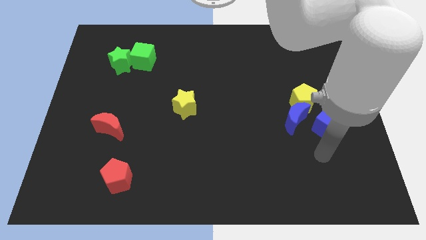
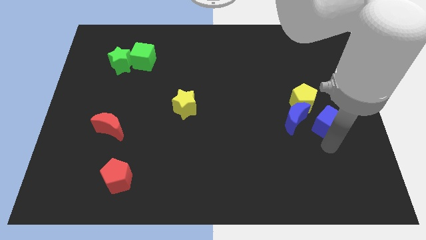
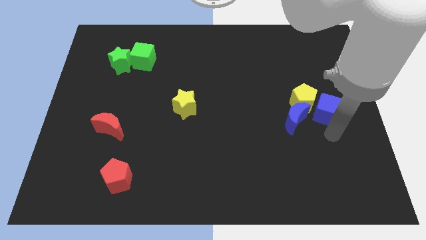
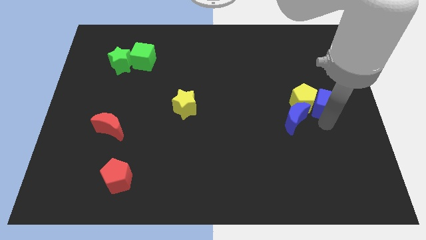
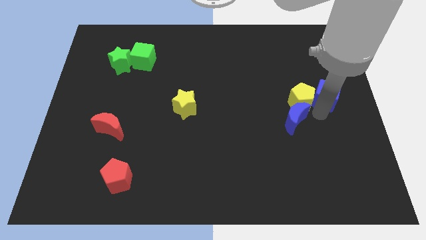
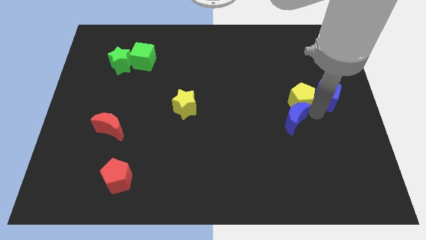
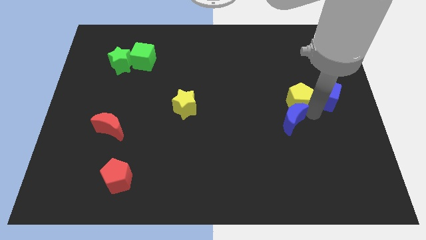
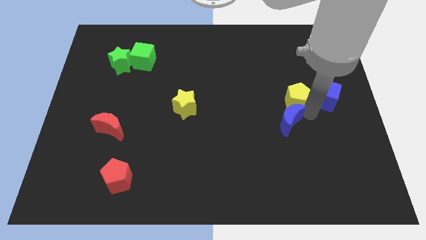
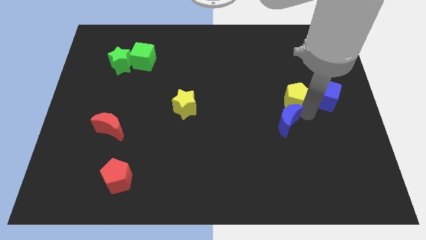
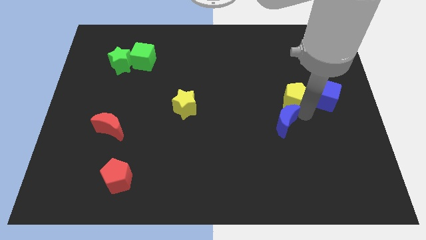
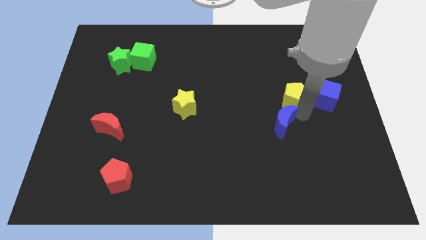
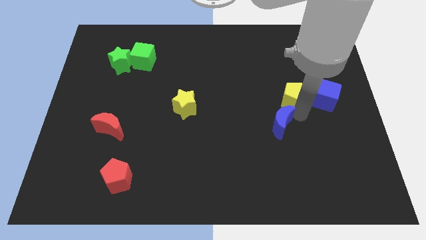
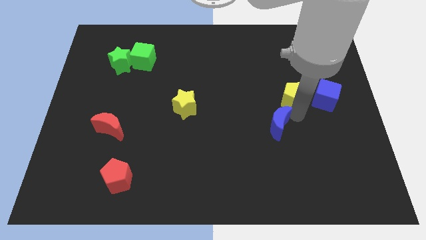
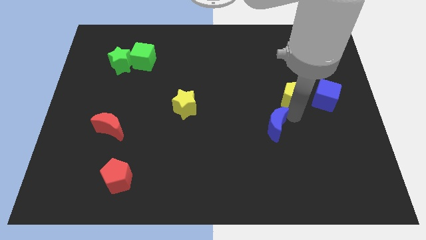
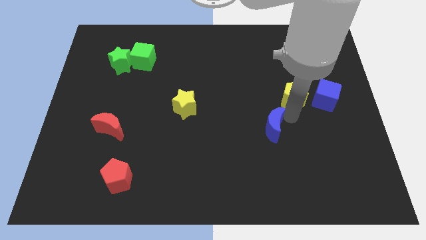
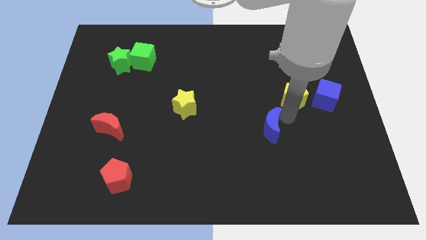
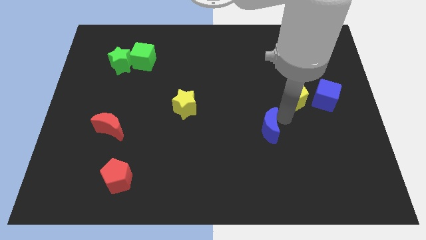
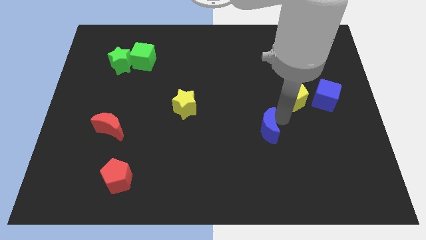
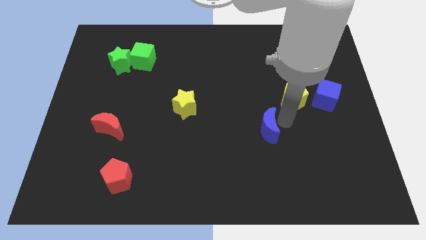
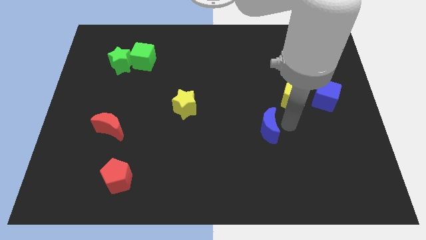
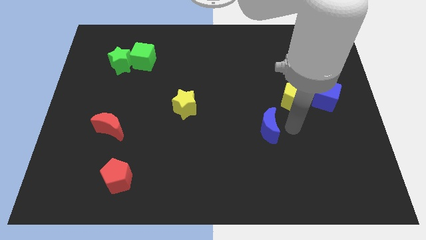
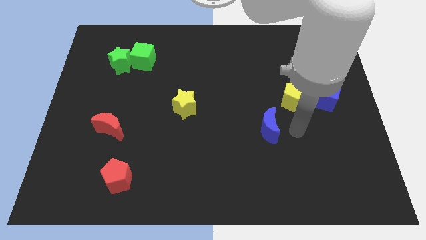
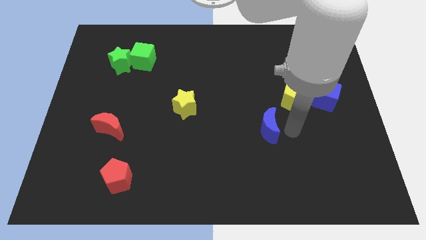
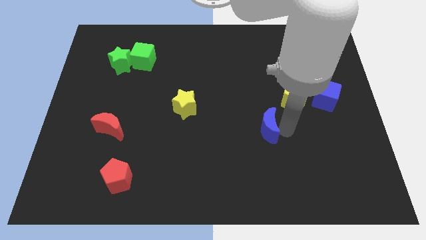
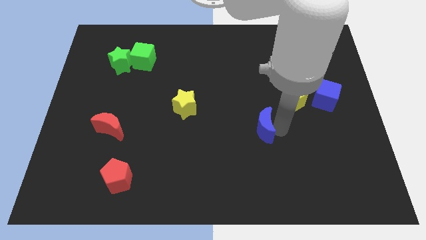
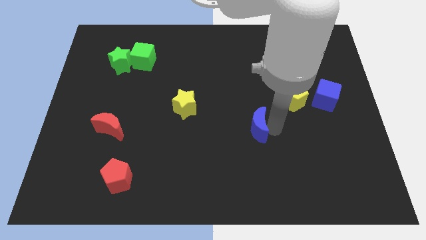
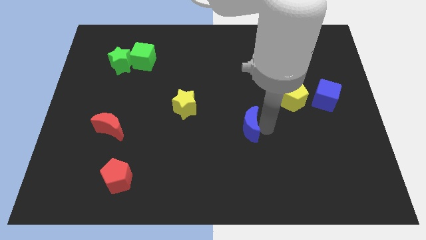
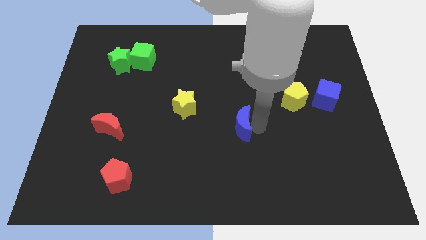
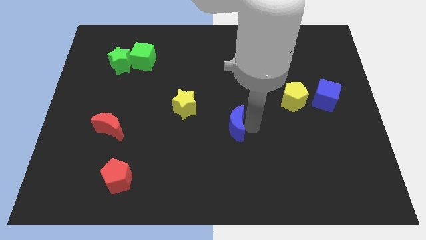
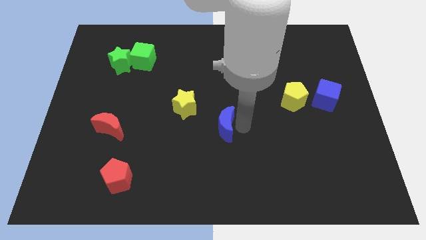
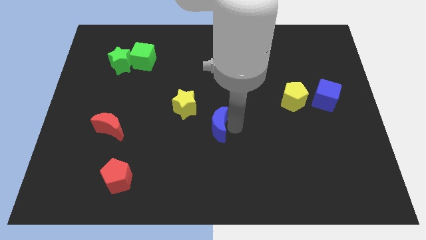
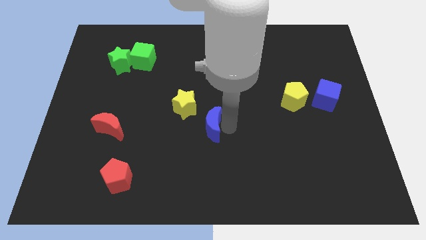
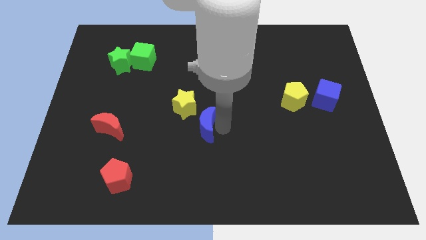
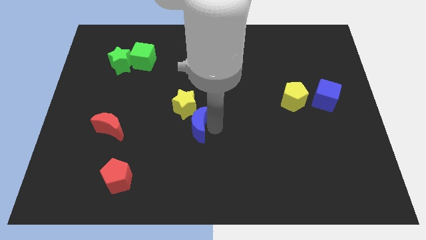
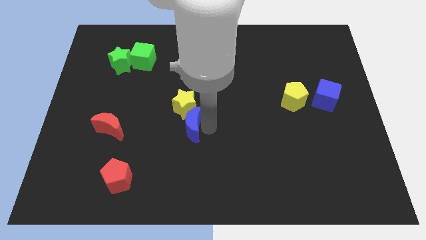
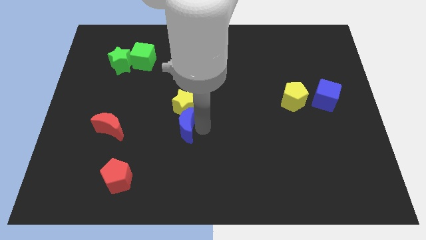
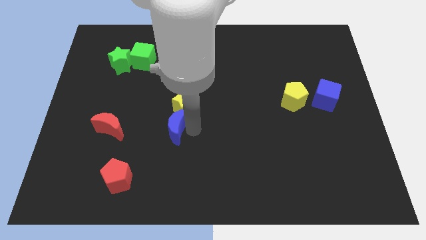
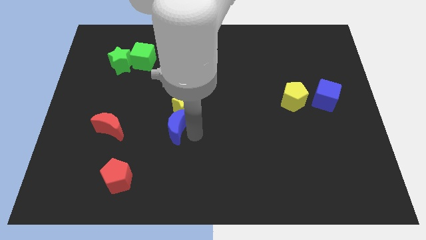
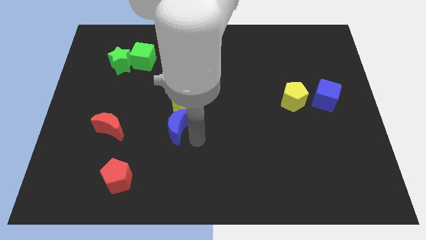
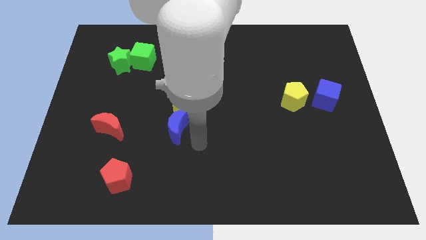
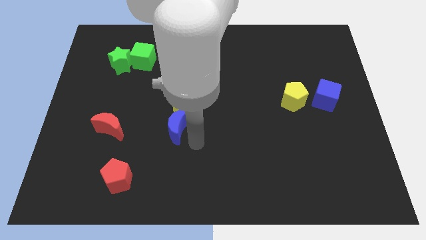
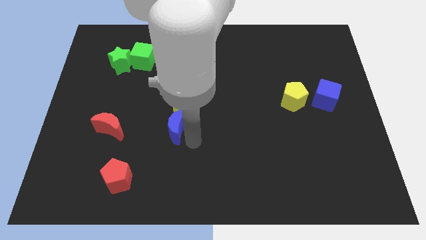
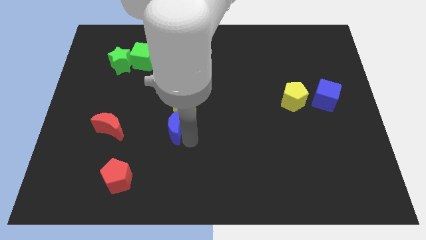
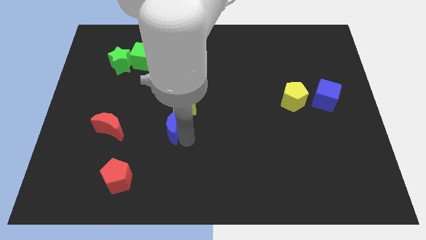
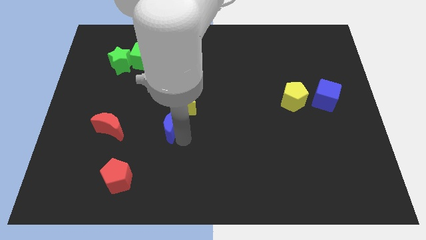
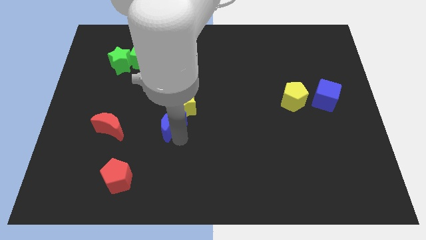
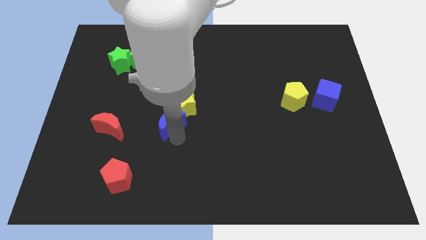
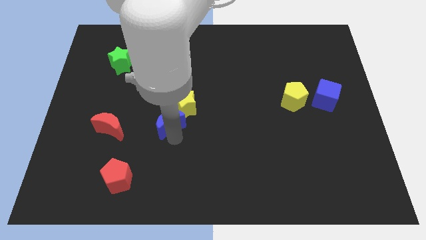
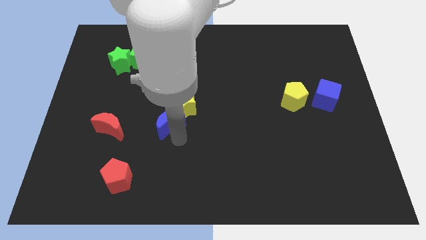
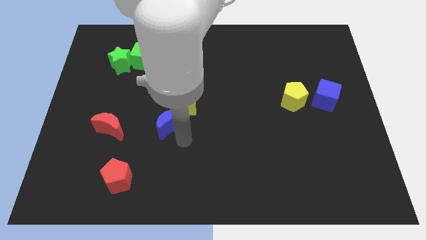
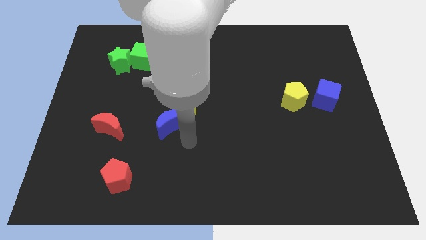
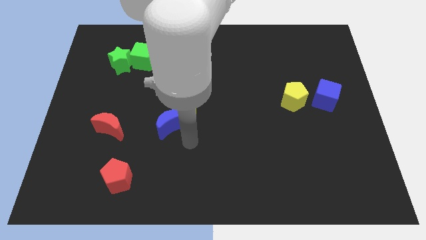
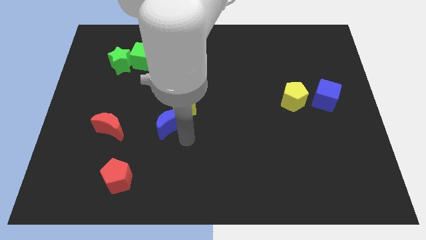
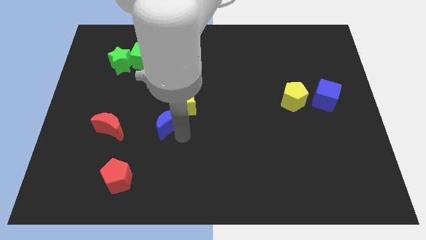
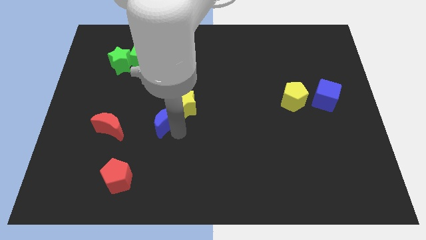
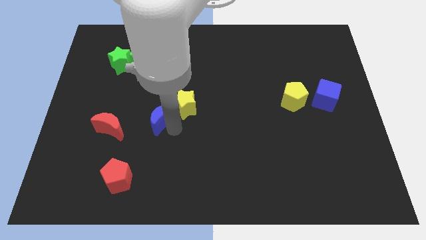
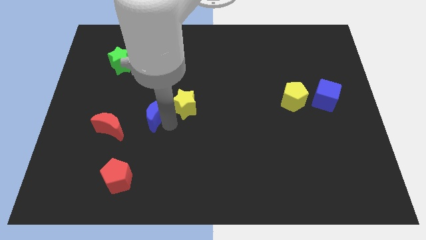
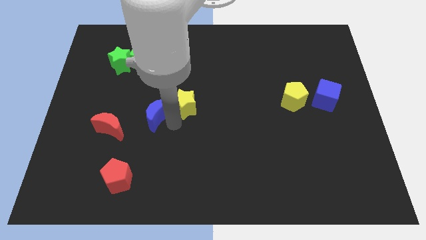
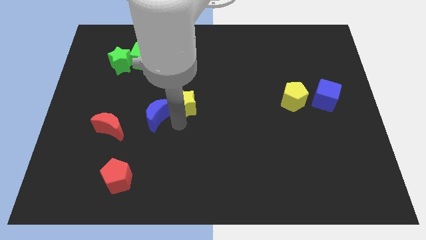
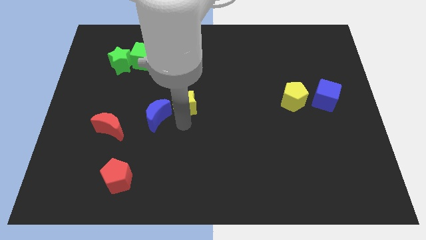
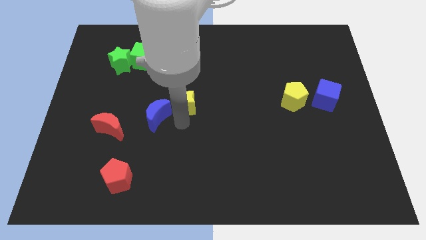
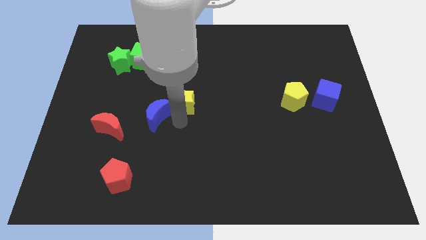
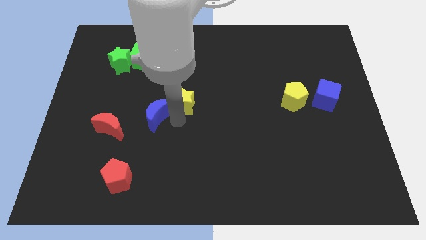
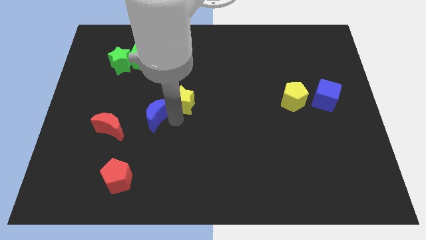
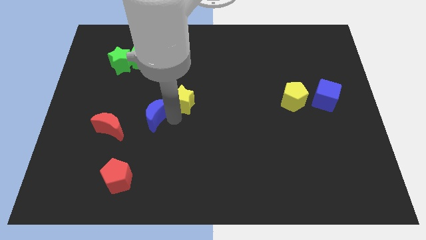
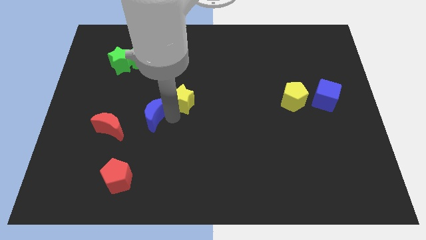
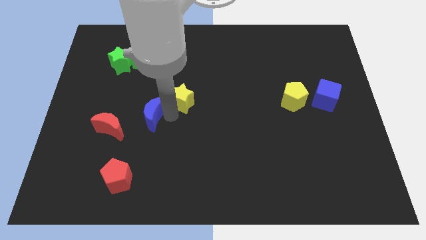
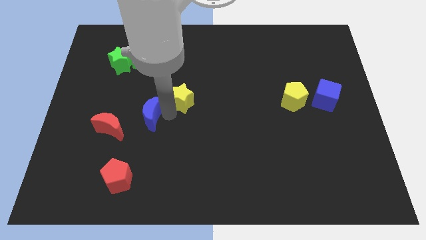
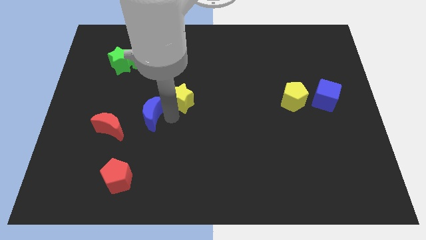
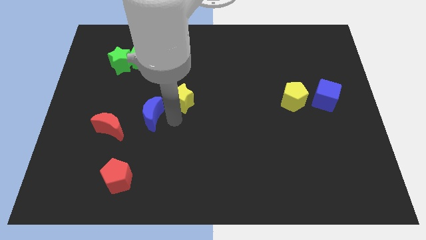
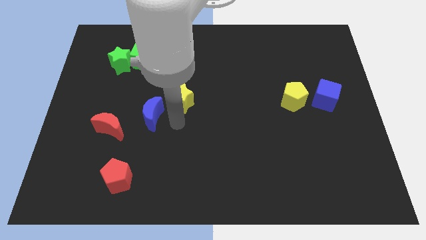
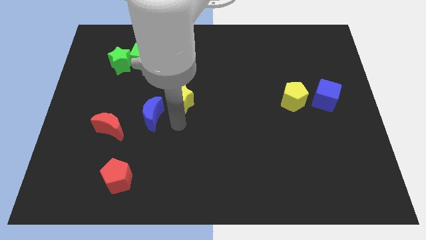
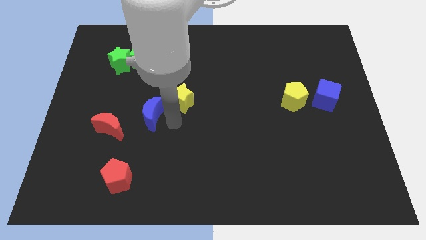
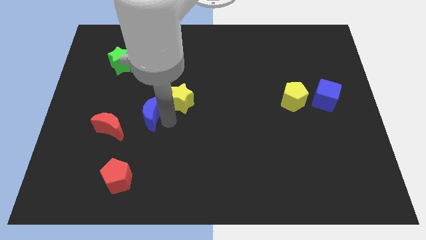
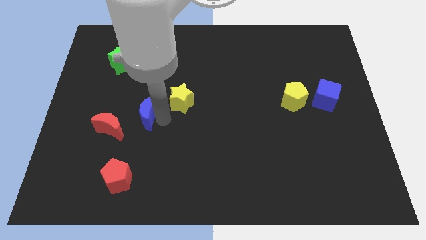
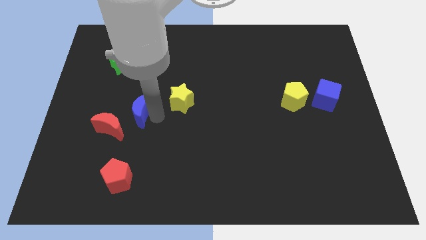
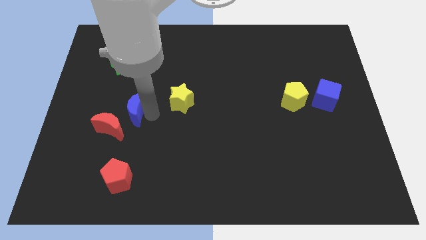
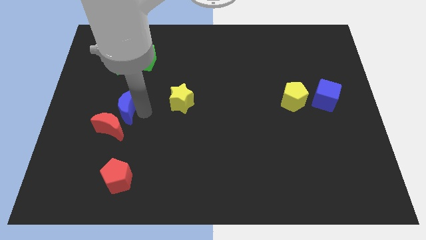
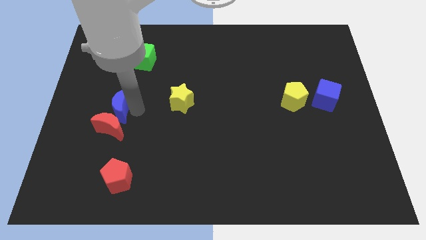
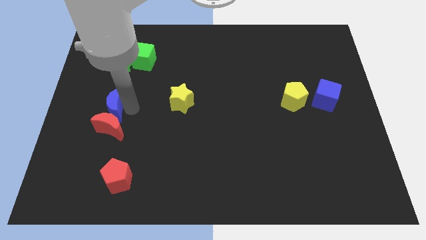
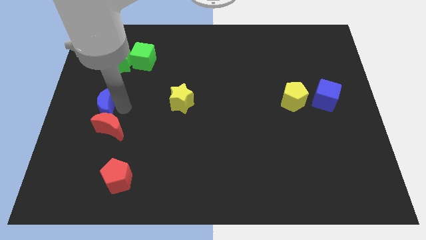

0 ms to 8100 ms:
move the blue moon to the left side
